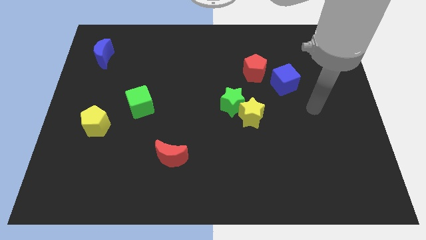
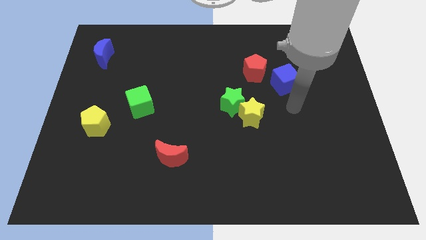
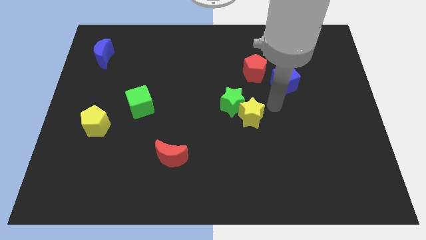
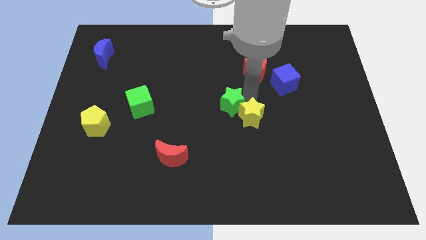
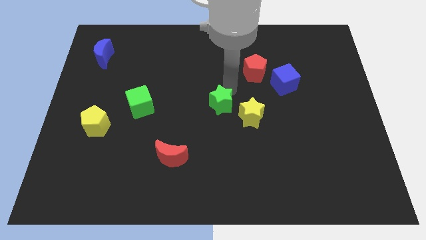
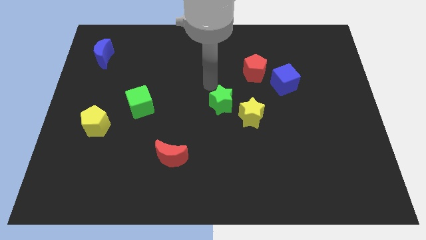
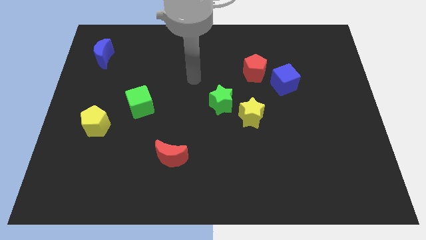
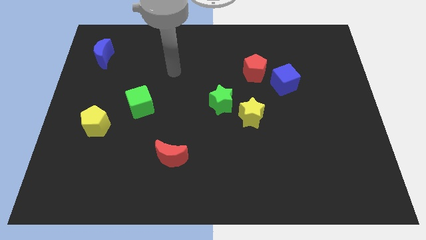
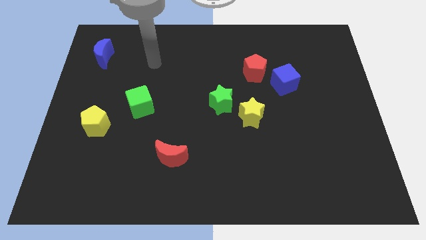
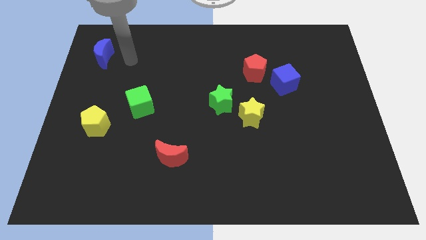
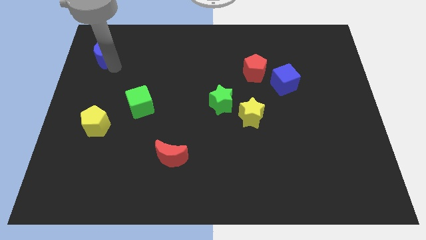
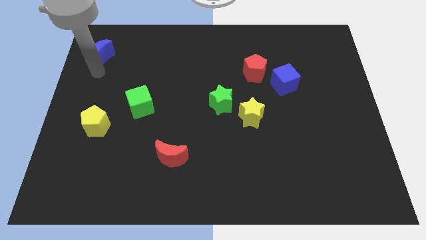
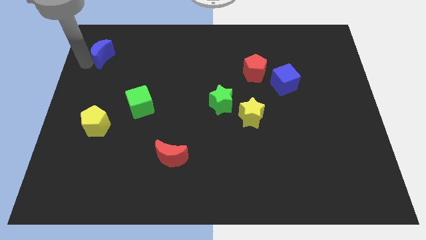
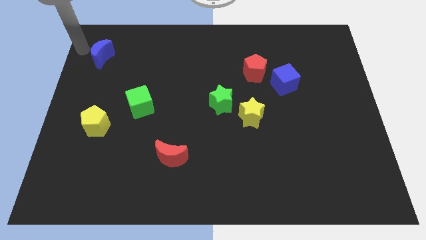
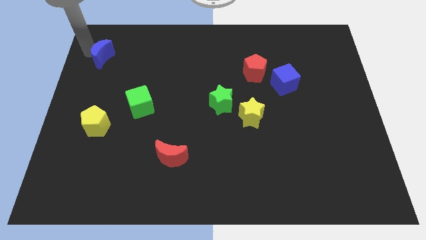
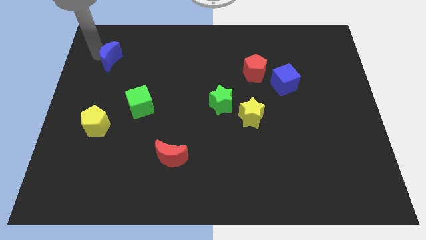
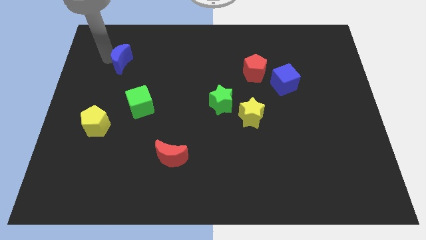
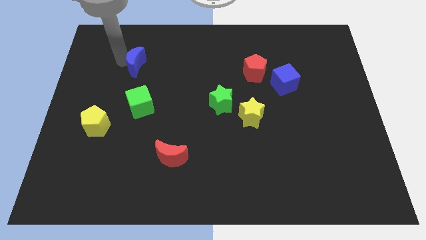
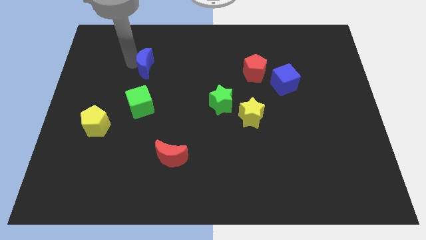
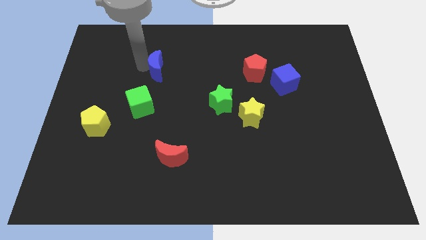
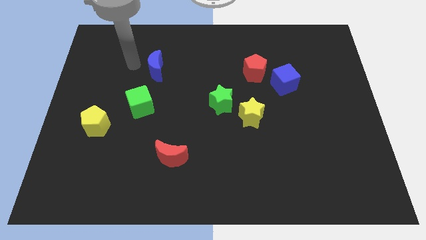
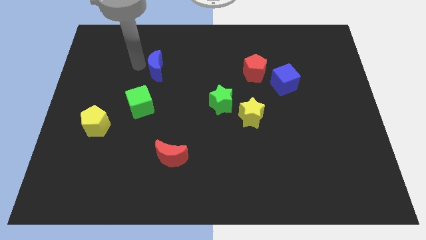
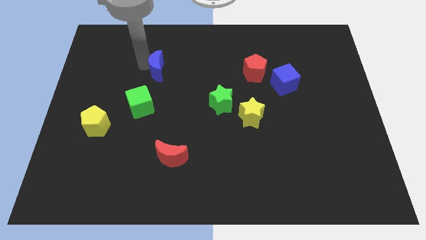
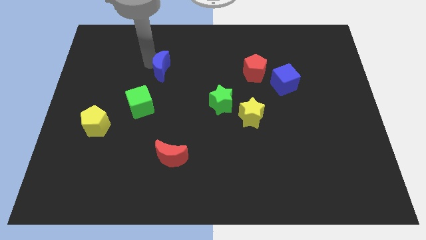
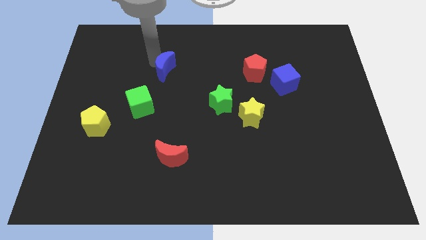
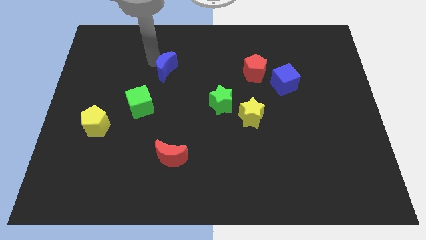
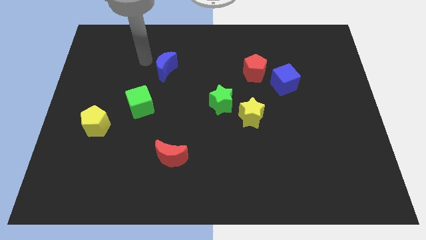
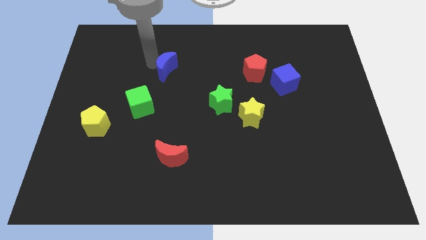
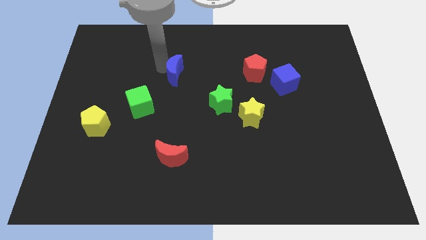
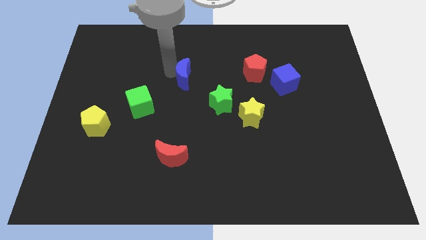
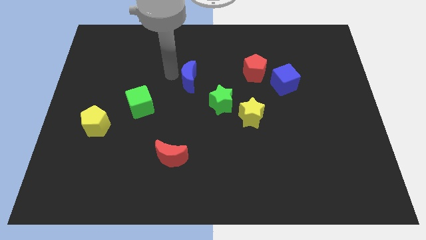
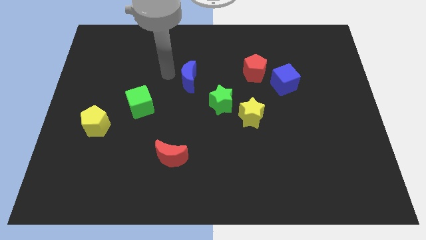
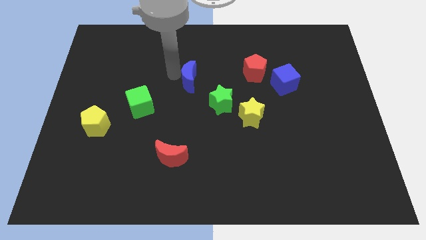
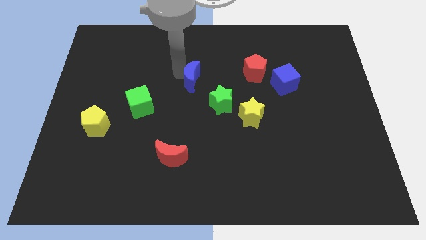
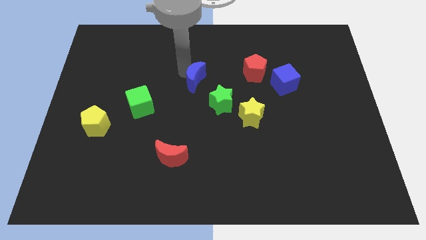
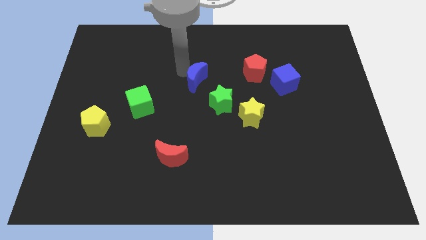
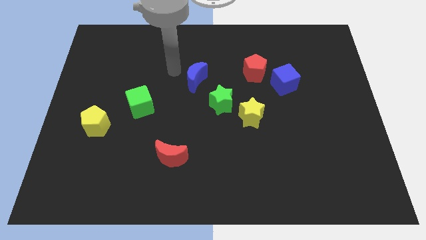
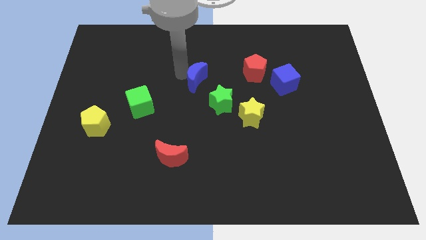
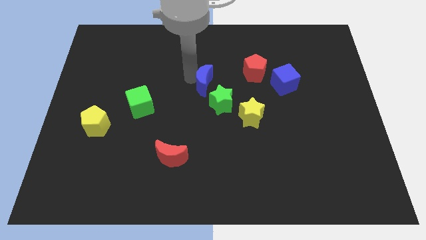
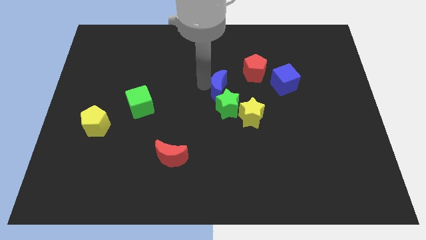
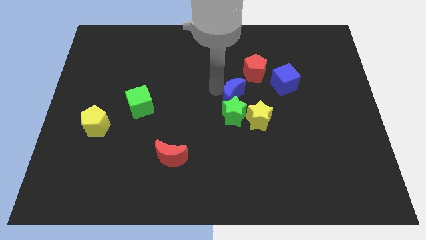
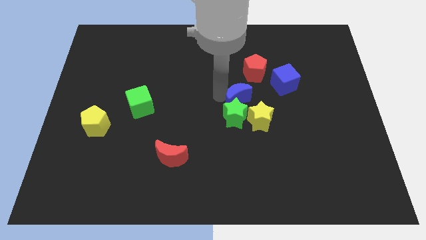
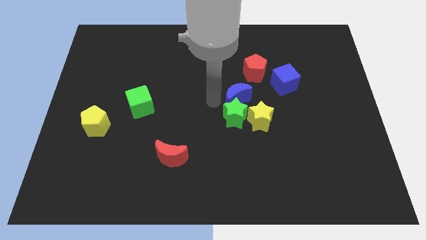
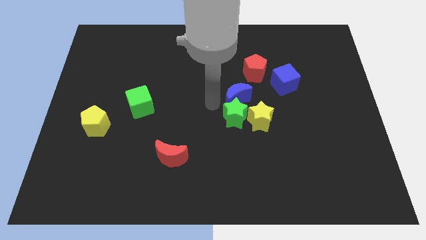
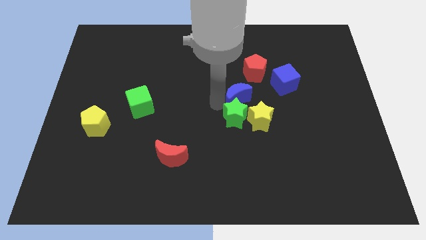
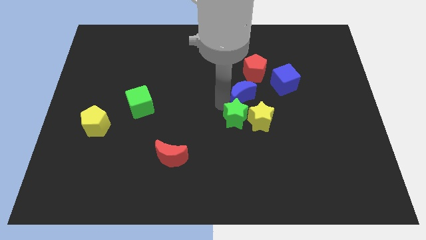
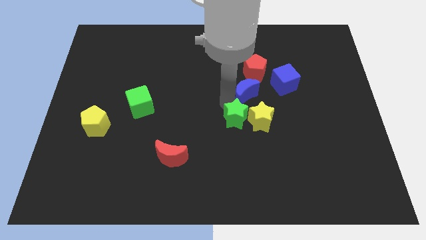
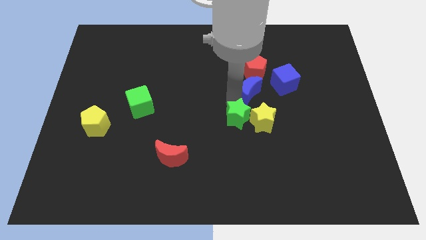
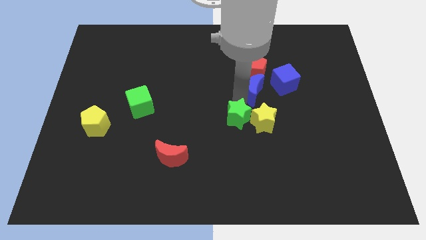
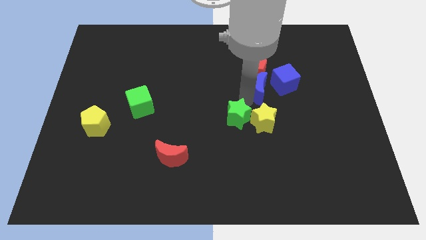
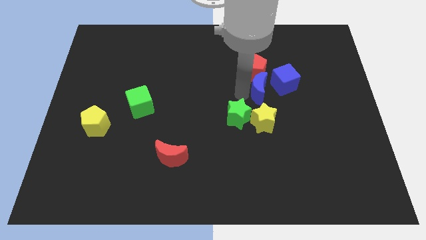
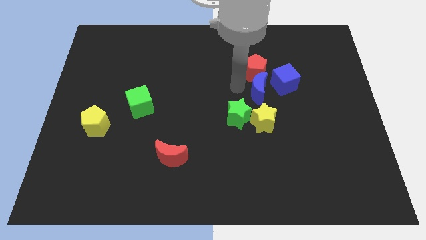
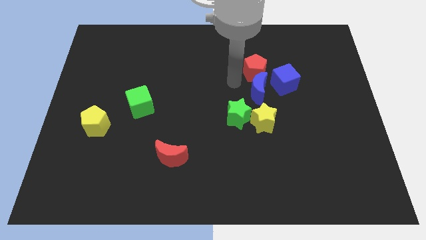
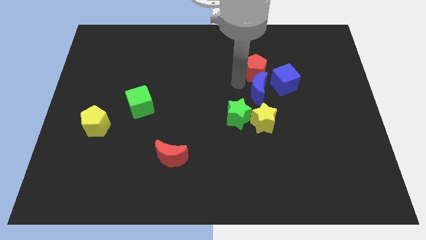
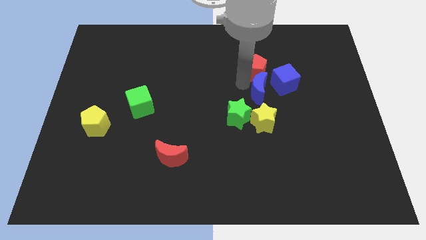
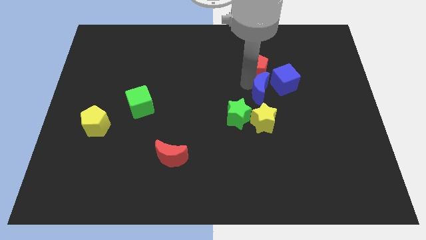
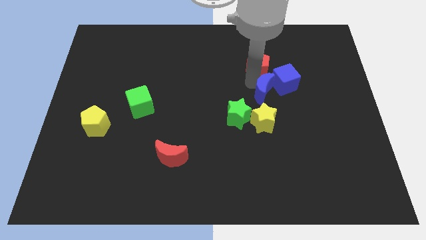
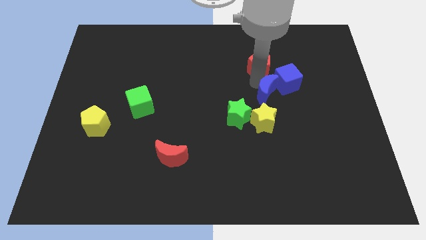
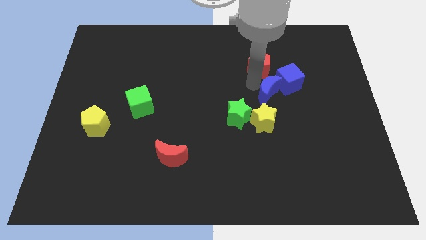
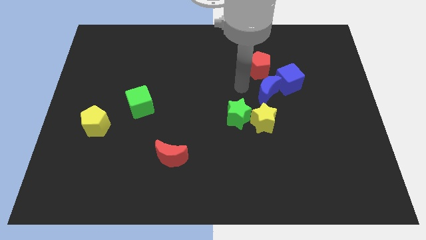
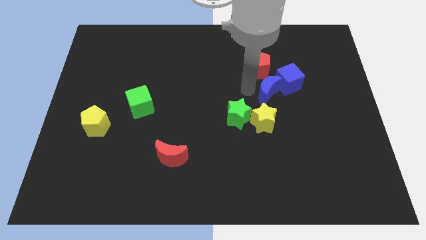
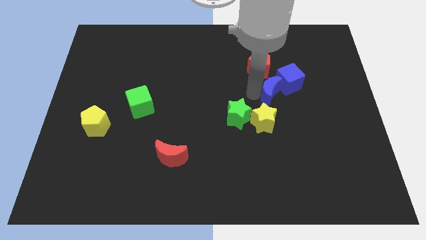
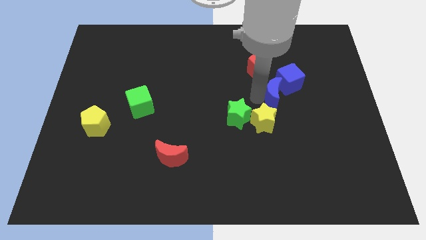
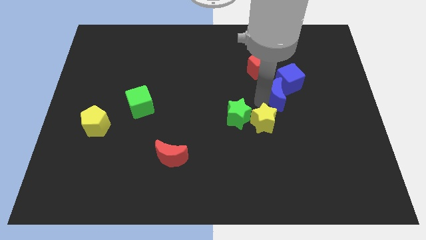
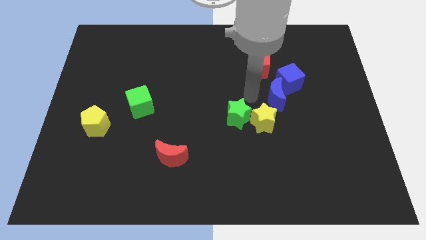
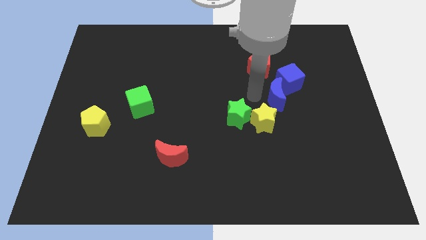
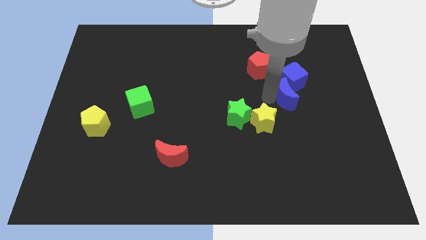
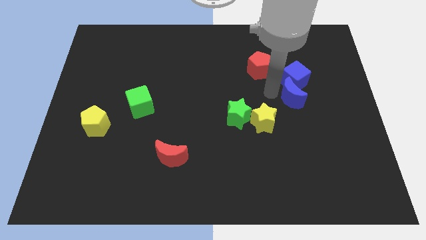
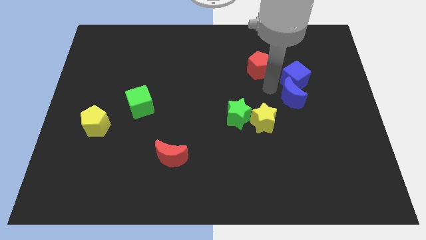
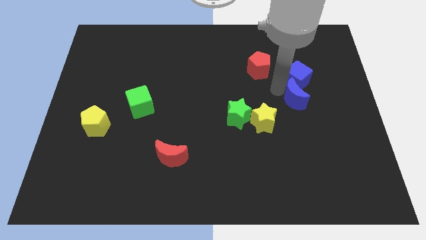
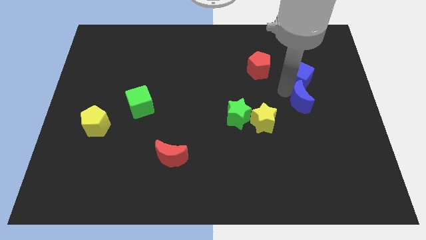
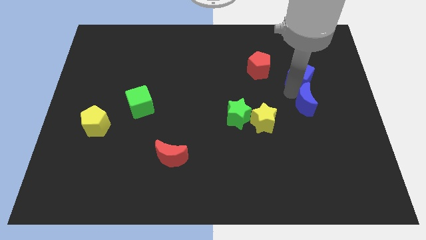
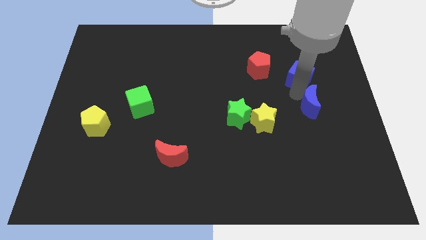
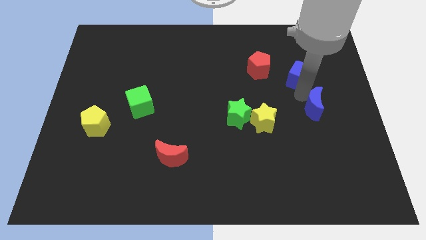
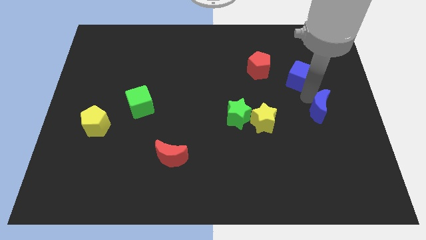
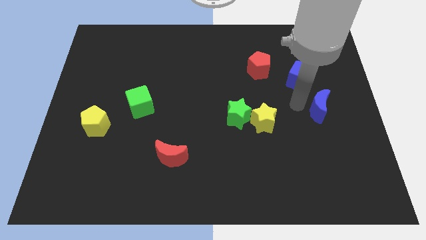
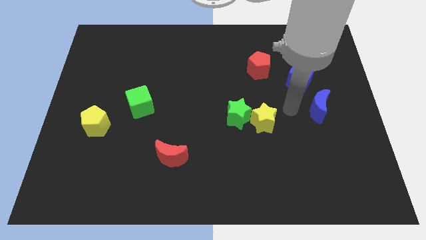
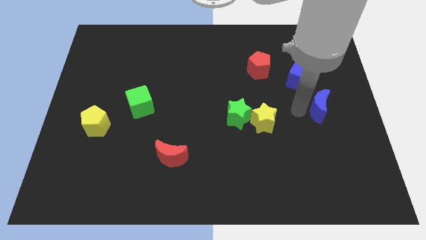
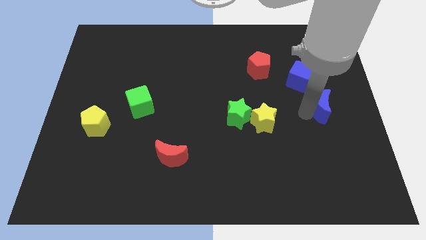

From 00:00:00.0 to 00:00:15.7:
move the blue moon to the center right
